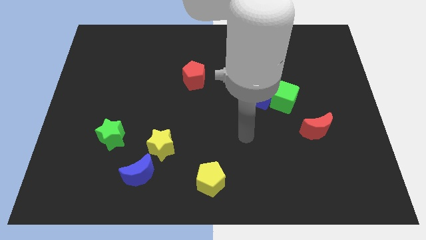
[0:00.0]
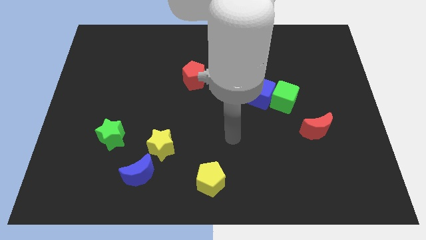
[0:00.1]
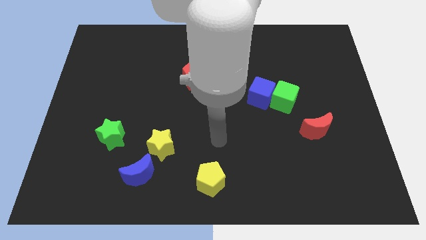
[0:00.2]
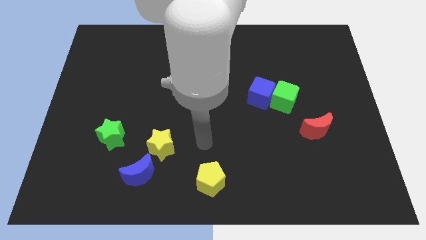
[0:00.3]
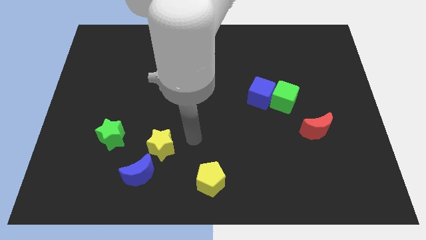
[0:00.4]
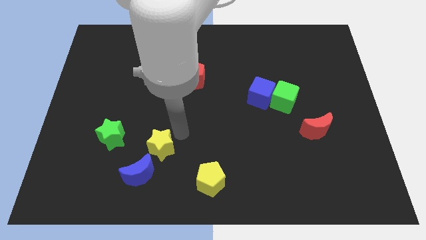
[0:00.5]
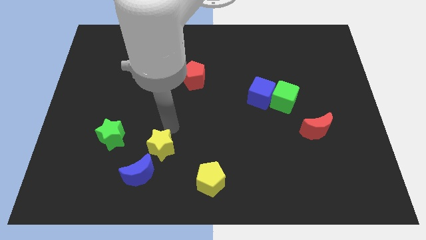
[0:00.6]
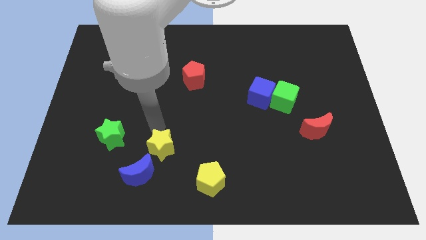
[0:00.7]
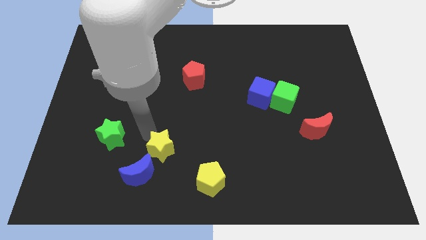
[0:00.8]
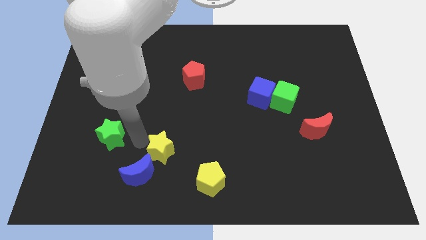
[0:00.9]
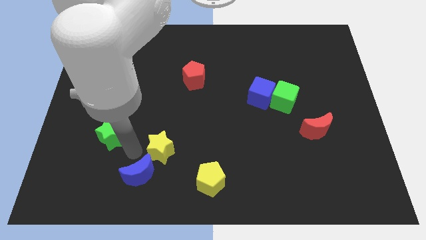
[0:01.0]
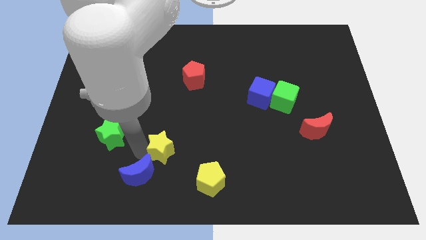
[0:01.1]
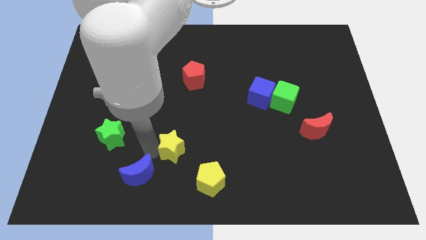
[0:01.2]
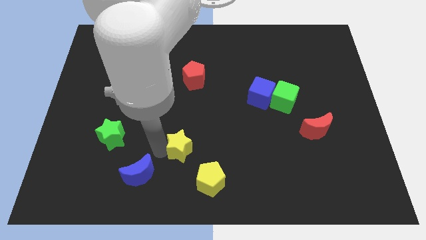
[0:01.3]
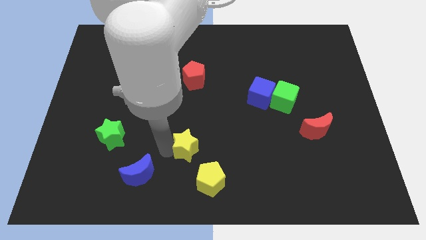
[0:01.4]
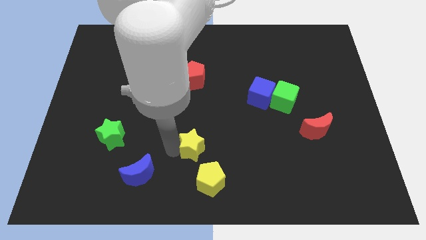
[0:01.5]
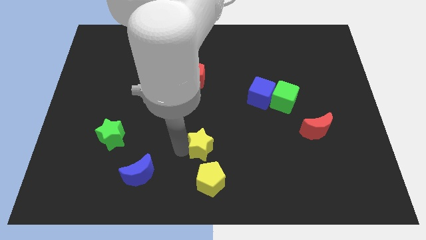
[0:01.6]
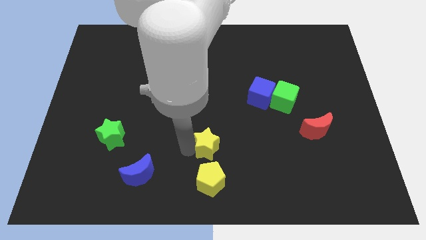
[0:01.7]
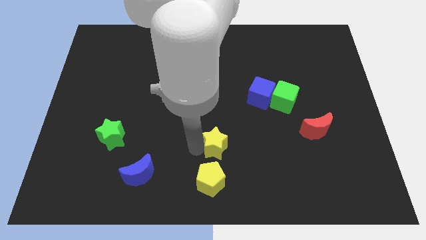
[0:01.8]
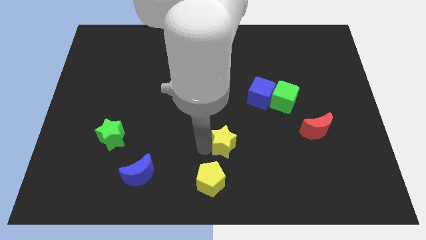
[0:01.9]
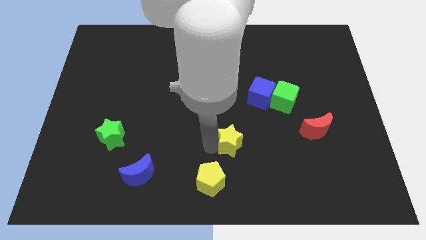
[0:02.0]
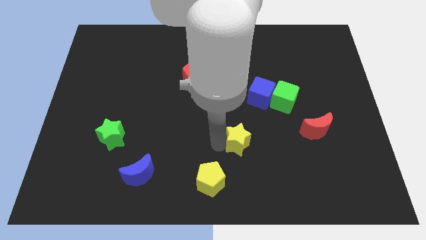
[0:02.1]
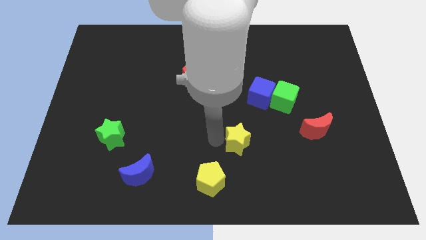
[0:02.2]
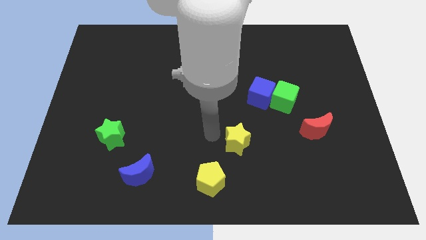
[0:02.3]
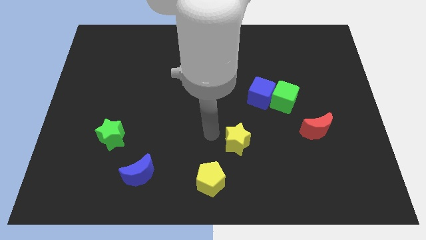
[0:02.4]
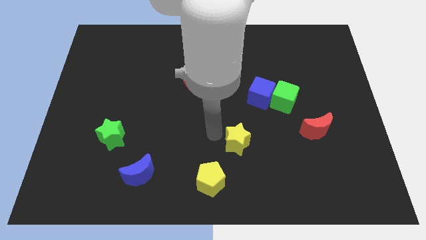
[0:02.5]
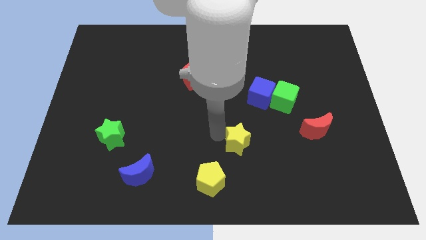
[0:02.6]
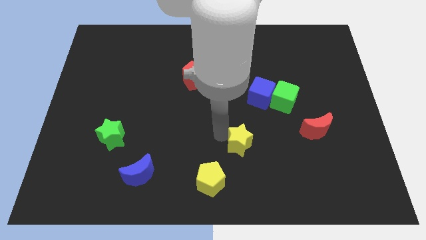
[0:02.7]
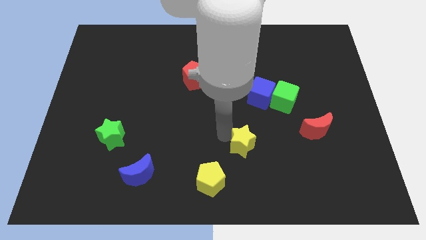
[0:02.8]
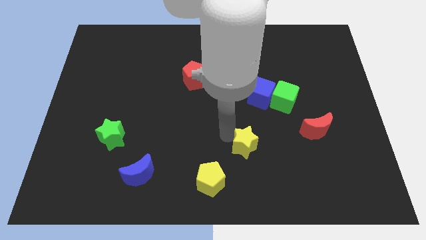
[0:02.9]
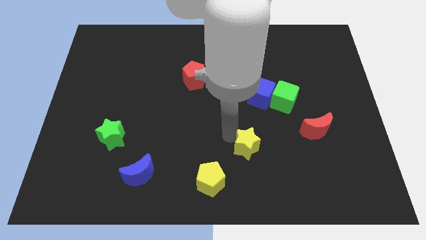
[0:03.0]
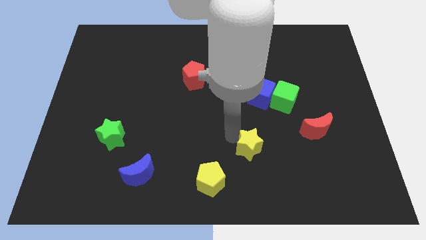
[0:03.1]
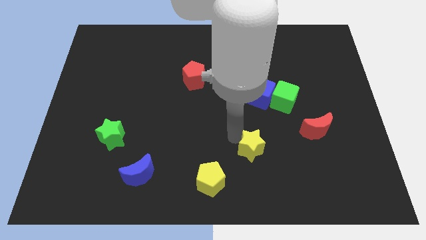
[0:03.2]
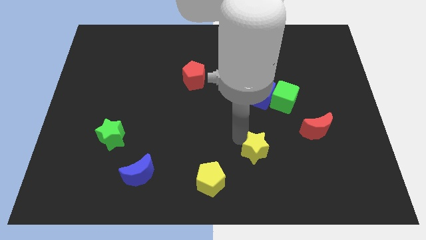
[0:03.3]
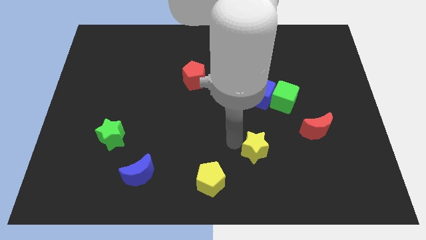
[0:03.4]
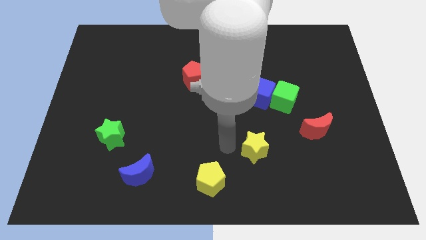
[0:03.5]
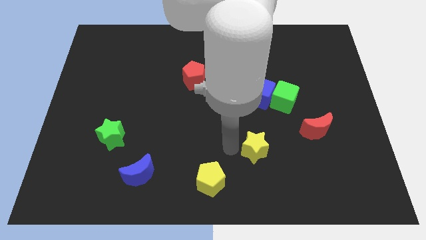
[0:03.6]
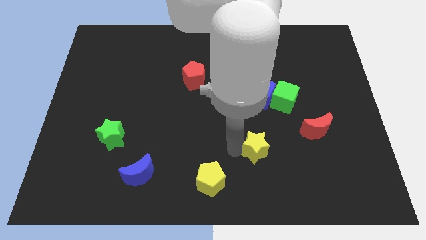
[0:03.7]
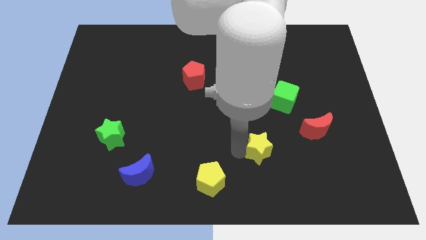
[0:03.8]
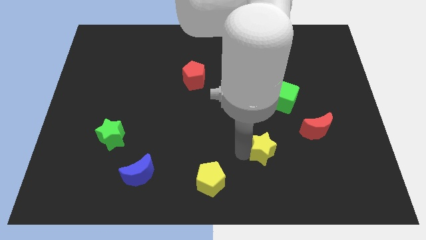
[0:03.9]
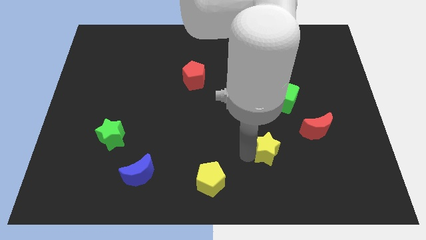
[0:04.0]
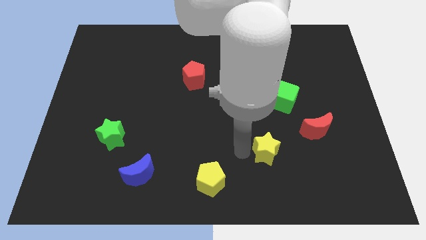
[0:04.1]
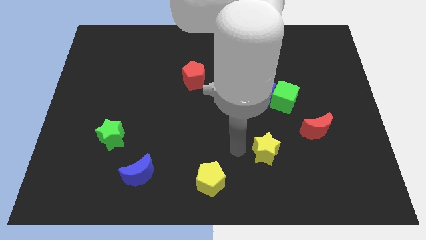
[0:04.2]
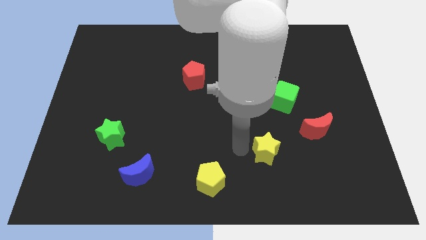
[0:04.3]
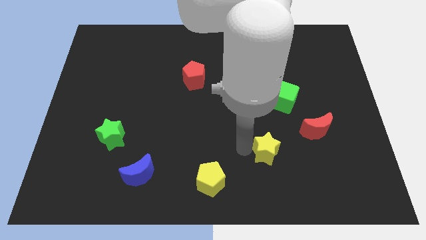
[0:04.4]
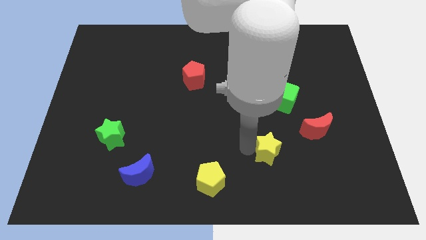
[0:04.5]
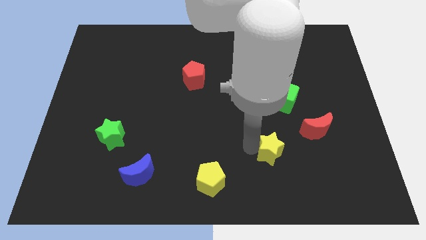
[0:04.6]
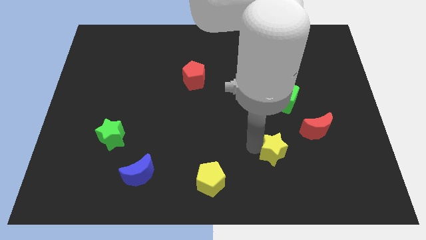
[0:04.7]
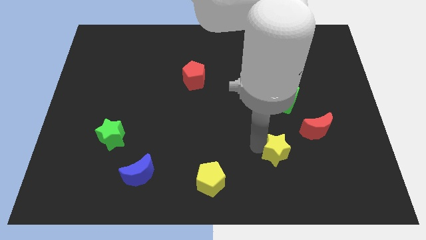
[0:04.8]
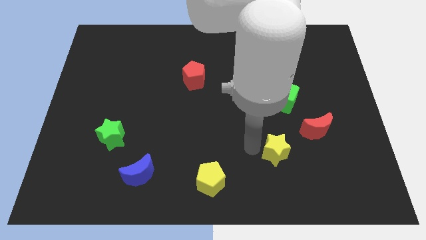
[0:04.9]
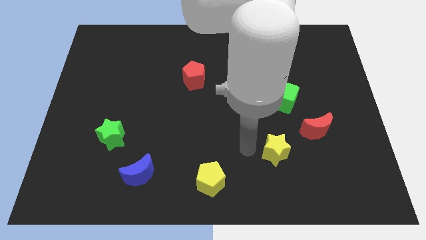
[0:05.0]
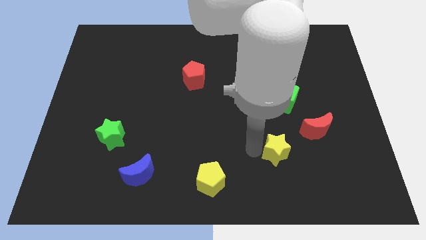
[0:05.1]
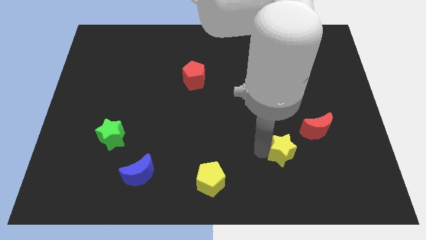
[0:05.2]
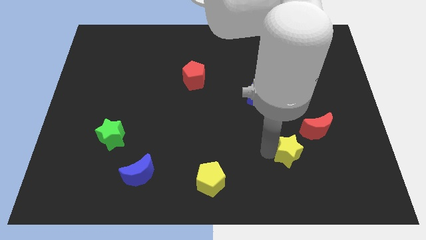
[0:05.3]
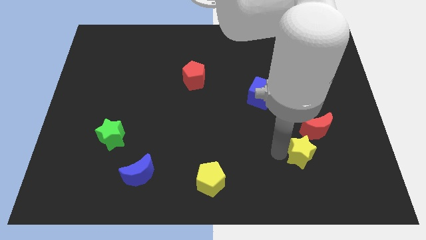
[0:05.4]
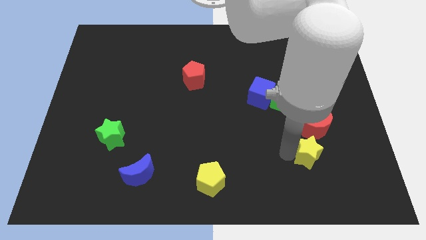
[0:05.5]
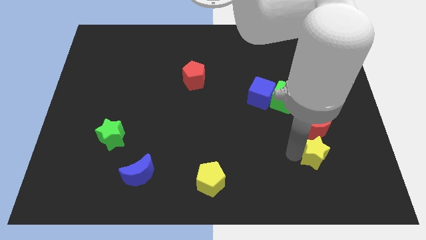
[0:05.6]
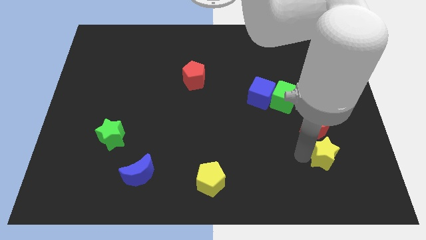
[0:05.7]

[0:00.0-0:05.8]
move the yellow star to the bottom right of the red moon

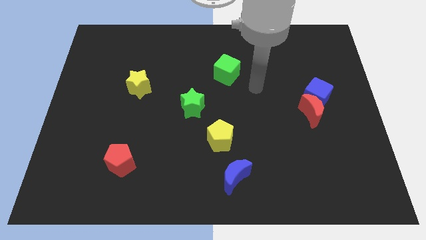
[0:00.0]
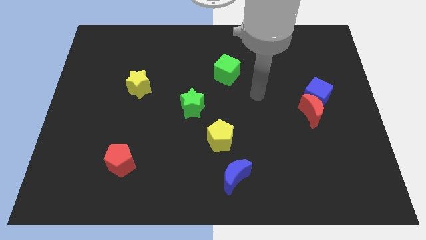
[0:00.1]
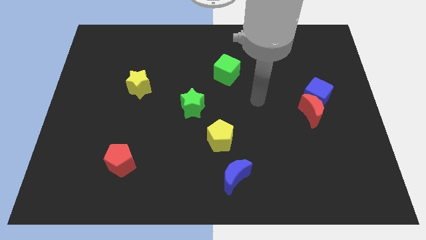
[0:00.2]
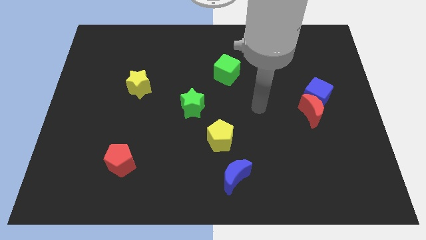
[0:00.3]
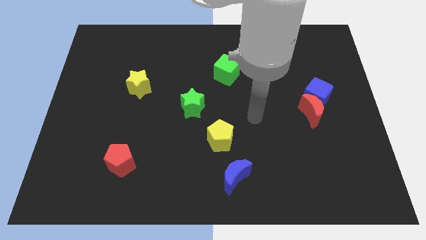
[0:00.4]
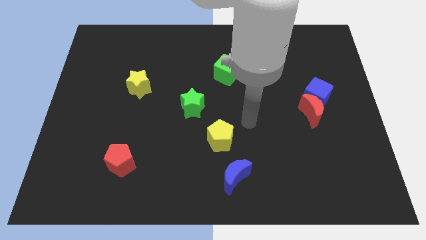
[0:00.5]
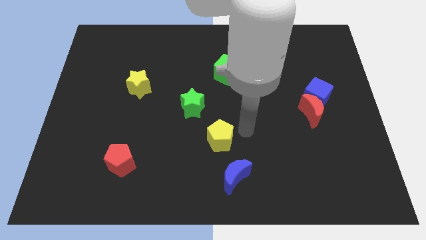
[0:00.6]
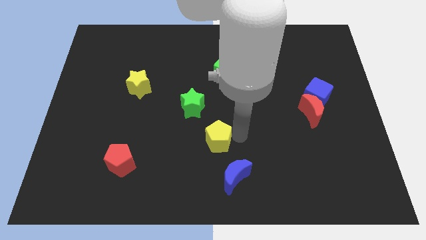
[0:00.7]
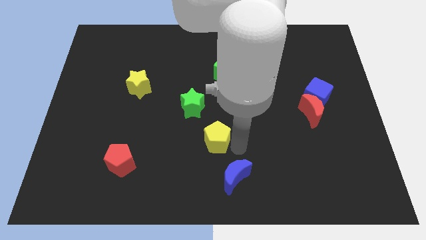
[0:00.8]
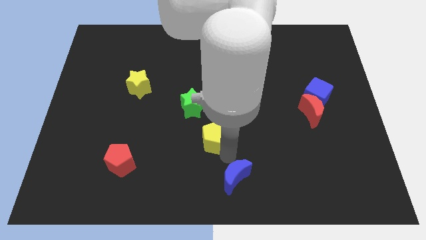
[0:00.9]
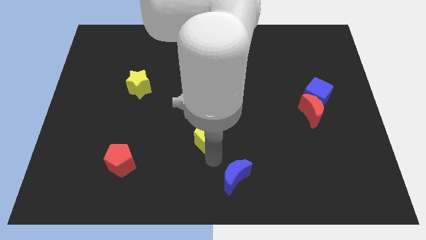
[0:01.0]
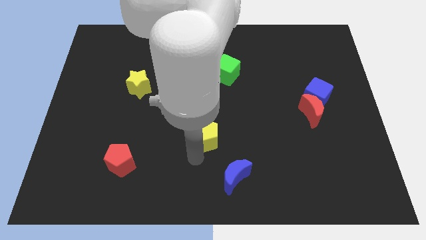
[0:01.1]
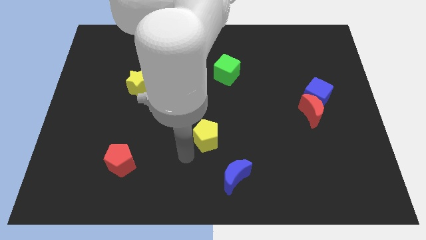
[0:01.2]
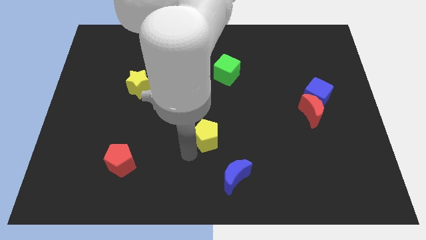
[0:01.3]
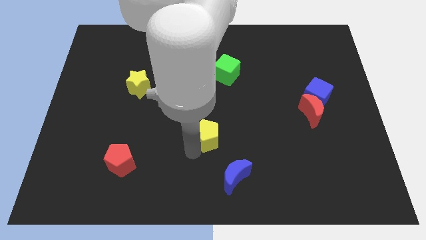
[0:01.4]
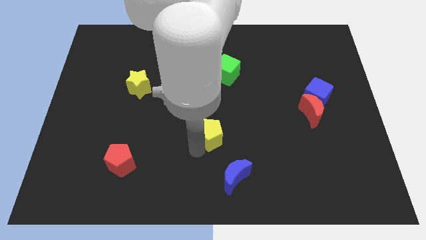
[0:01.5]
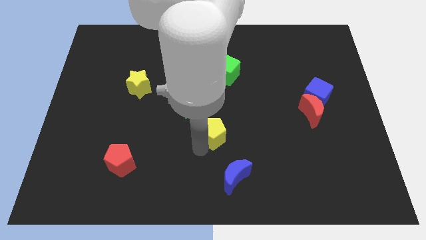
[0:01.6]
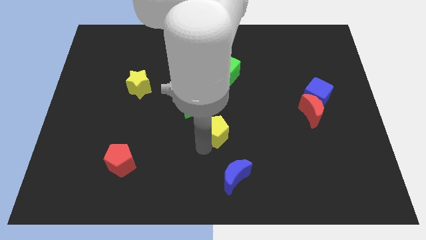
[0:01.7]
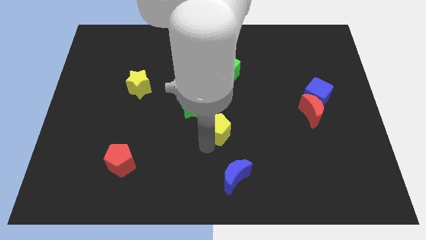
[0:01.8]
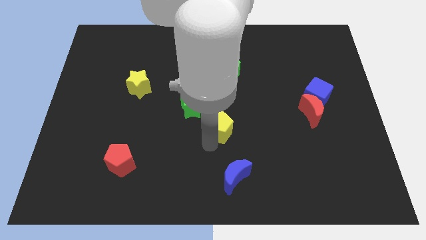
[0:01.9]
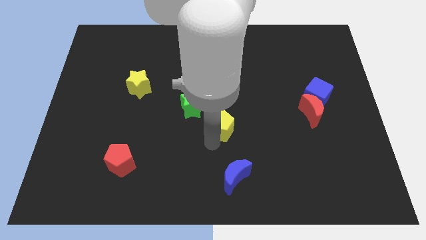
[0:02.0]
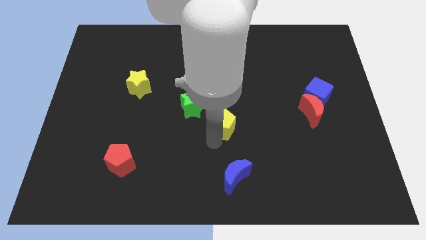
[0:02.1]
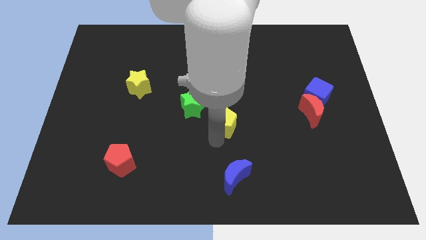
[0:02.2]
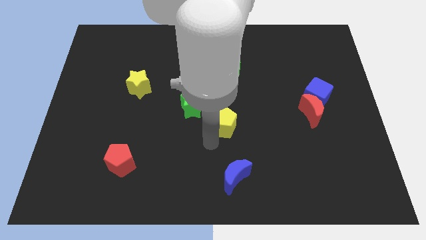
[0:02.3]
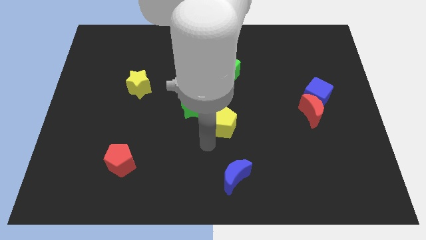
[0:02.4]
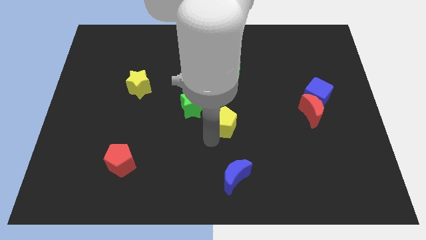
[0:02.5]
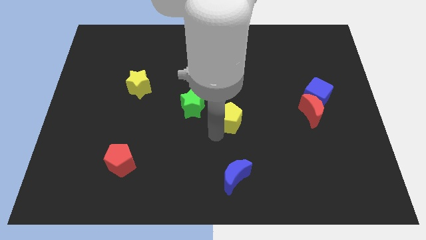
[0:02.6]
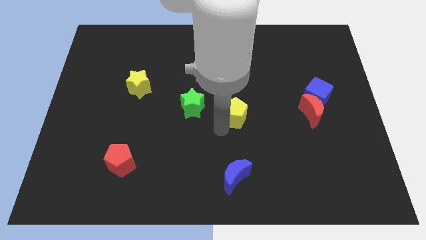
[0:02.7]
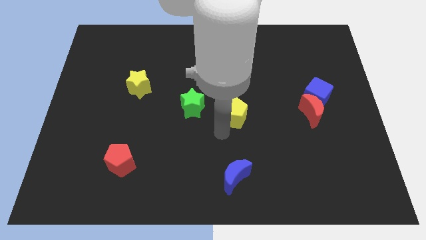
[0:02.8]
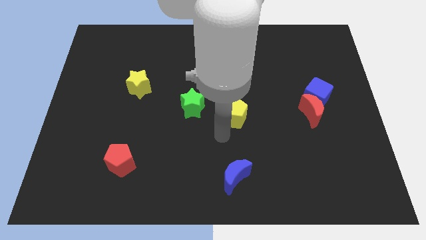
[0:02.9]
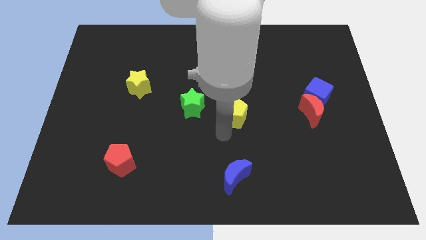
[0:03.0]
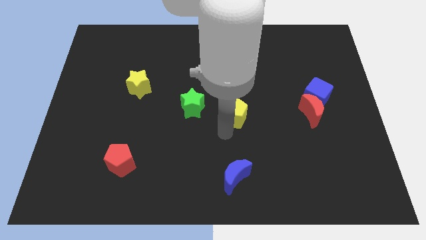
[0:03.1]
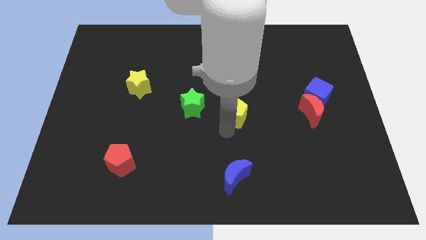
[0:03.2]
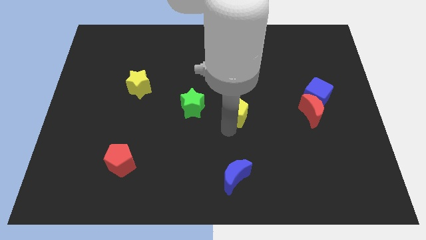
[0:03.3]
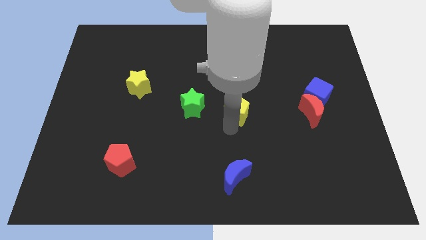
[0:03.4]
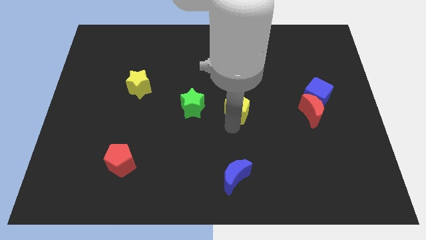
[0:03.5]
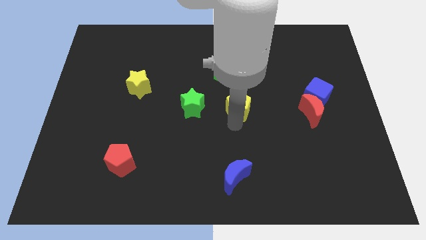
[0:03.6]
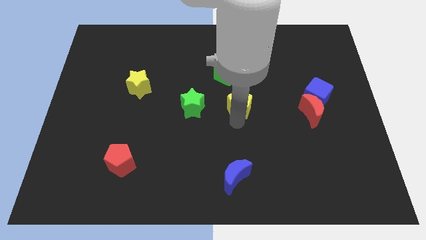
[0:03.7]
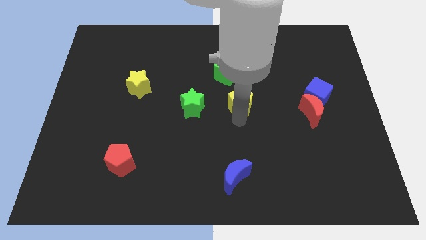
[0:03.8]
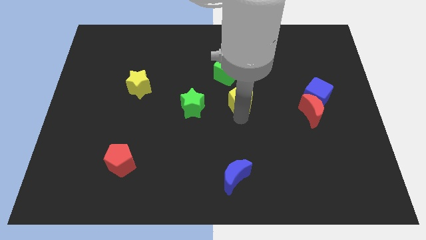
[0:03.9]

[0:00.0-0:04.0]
slide the yellow pentagon to the bottom right of the green cube
